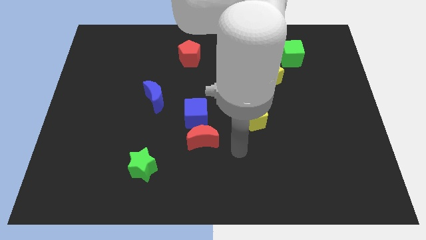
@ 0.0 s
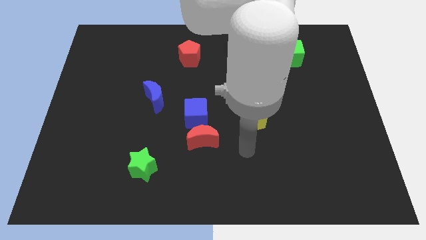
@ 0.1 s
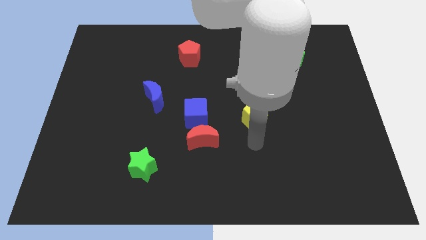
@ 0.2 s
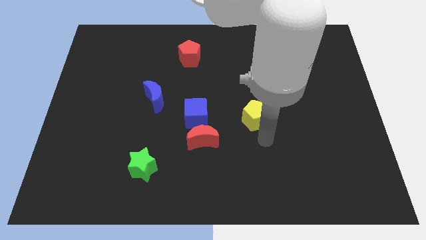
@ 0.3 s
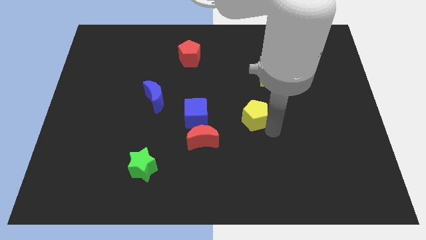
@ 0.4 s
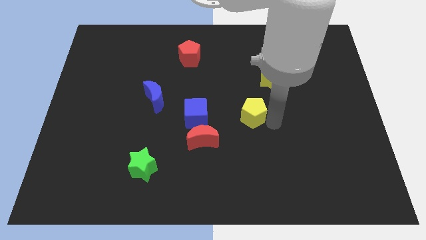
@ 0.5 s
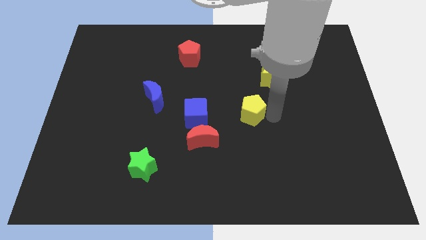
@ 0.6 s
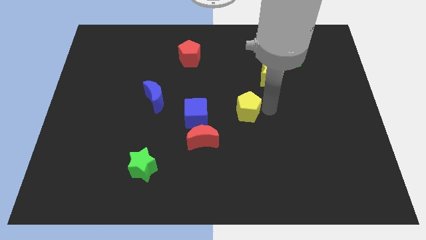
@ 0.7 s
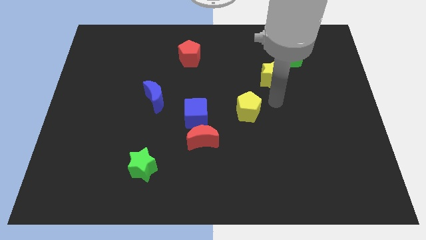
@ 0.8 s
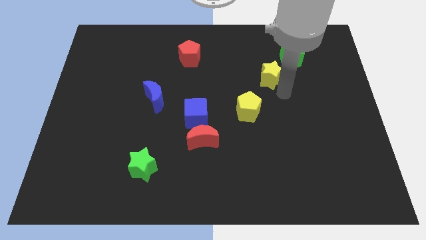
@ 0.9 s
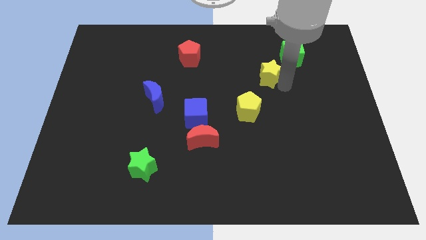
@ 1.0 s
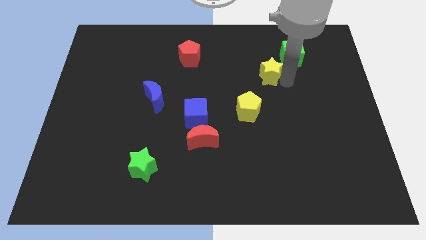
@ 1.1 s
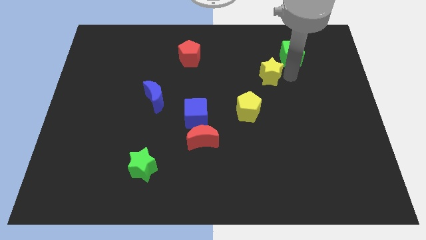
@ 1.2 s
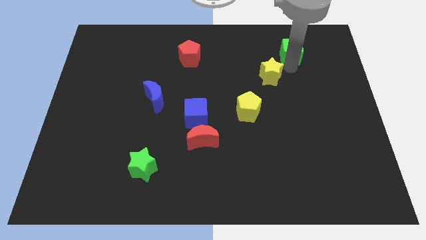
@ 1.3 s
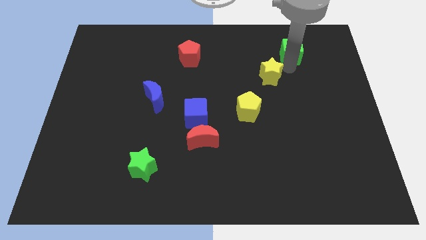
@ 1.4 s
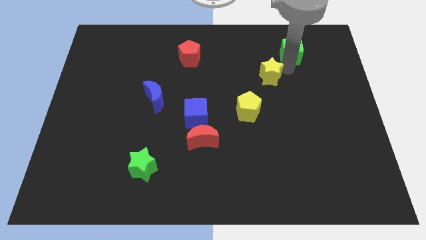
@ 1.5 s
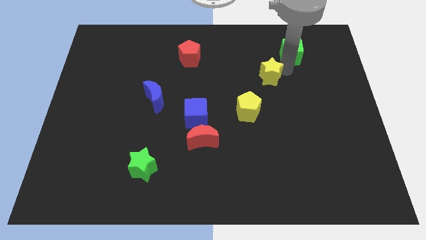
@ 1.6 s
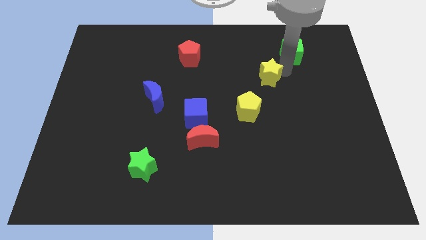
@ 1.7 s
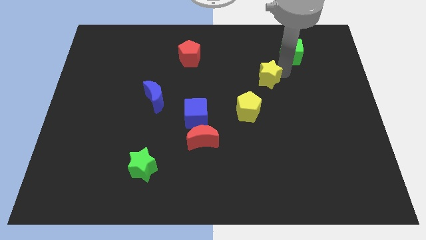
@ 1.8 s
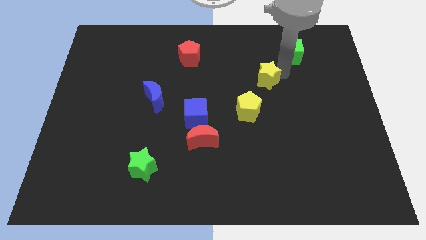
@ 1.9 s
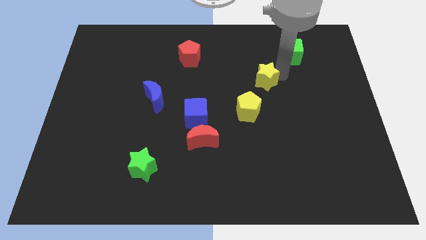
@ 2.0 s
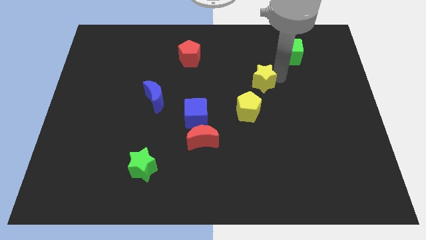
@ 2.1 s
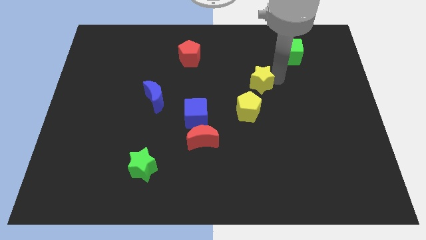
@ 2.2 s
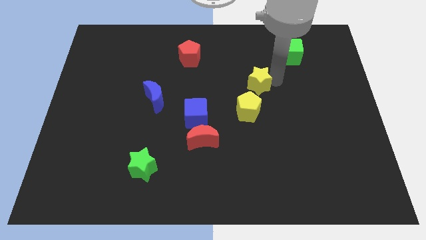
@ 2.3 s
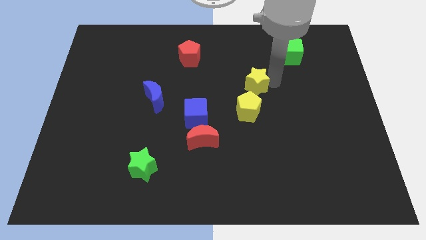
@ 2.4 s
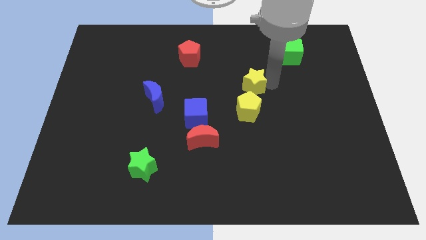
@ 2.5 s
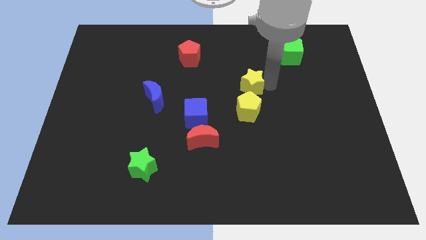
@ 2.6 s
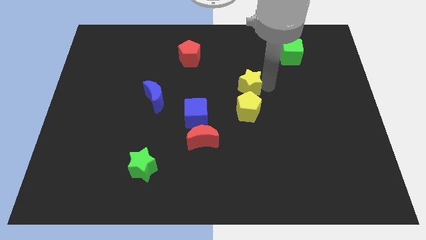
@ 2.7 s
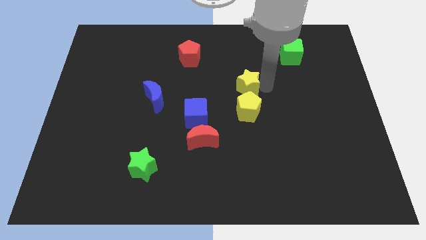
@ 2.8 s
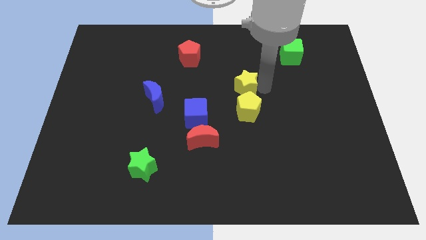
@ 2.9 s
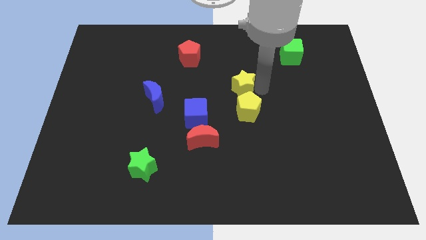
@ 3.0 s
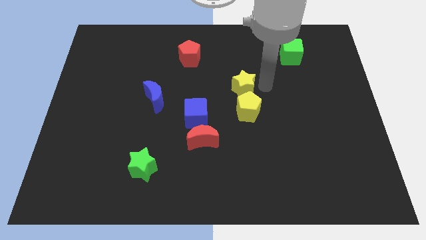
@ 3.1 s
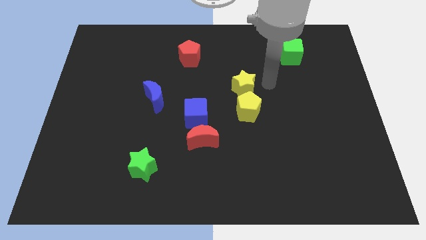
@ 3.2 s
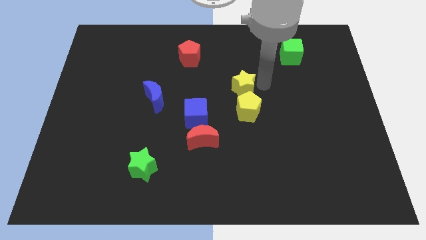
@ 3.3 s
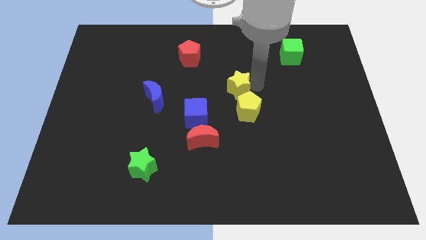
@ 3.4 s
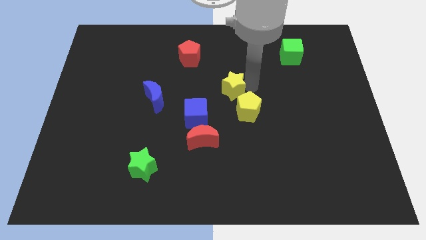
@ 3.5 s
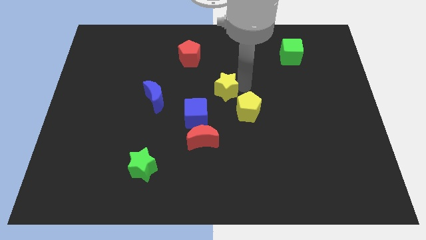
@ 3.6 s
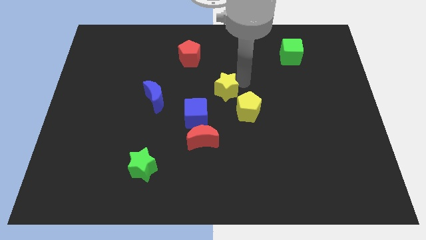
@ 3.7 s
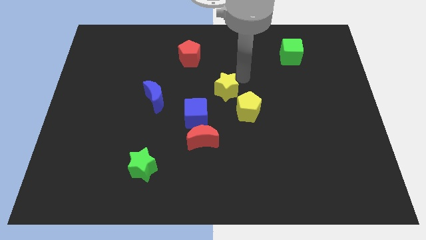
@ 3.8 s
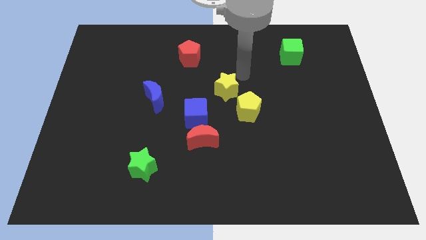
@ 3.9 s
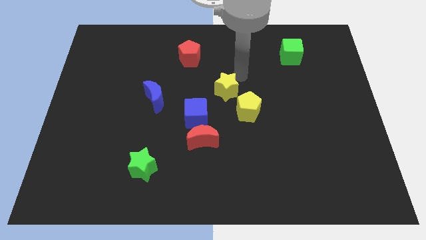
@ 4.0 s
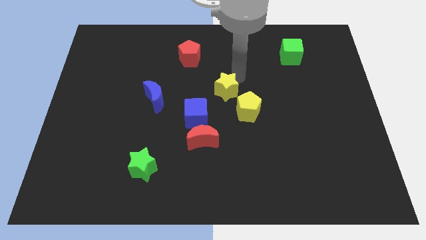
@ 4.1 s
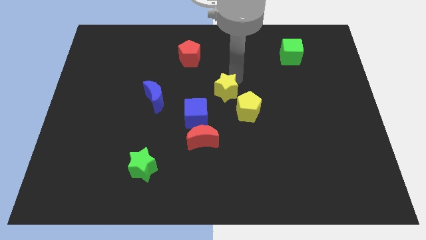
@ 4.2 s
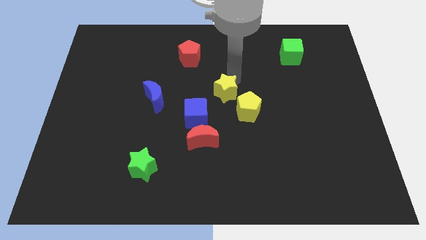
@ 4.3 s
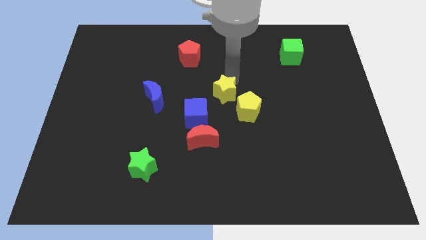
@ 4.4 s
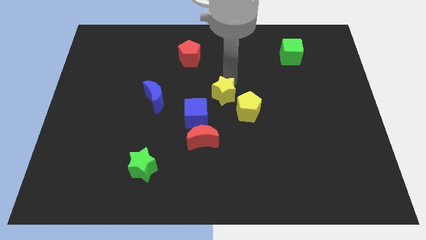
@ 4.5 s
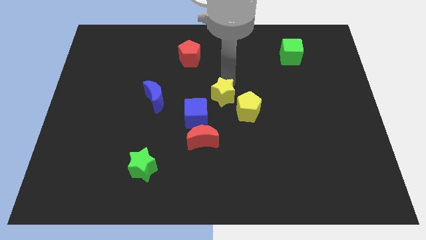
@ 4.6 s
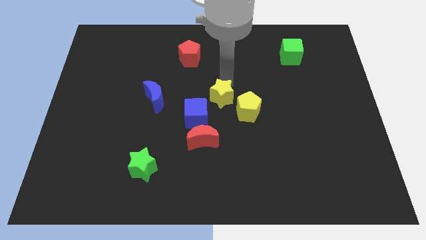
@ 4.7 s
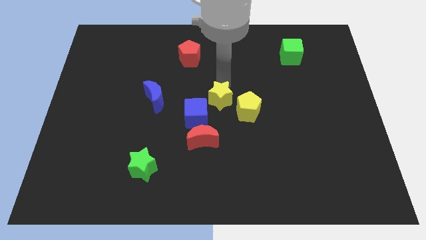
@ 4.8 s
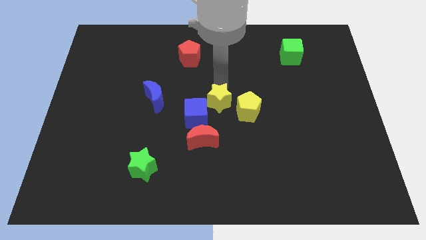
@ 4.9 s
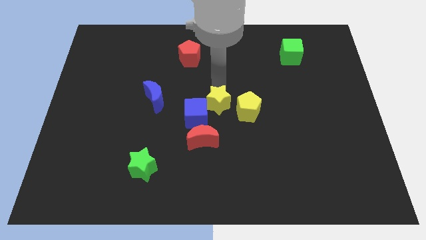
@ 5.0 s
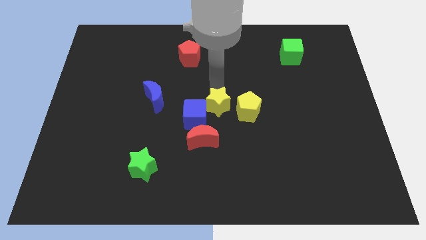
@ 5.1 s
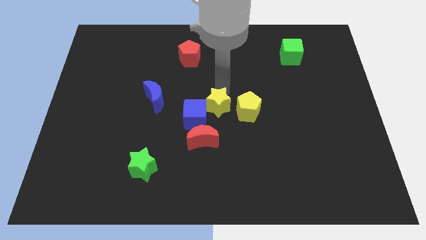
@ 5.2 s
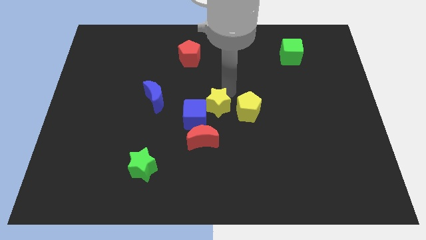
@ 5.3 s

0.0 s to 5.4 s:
move the yellow star towards the blue cube

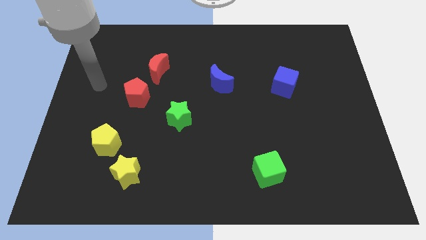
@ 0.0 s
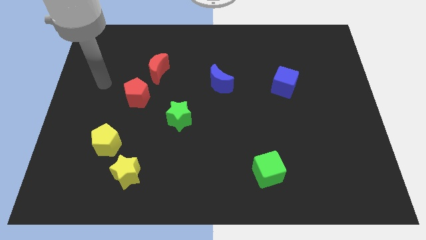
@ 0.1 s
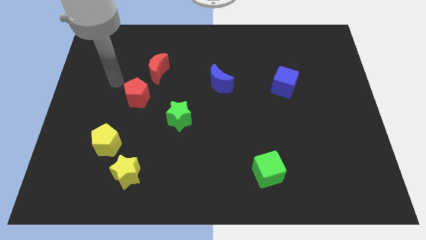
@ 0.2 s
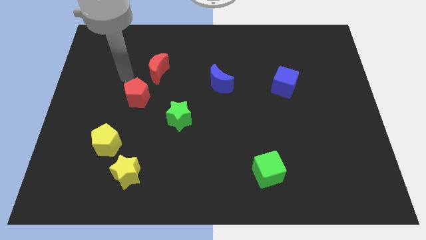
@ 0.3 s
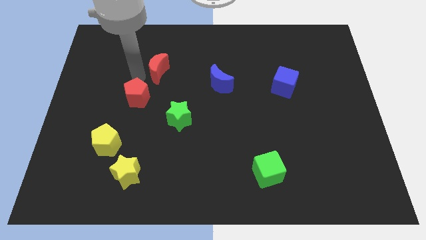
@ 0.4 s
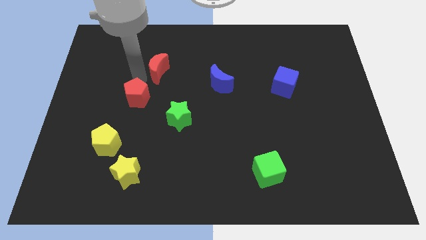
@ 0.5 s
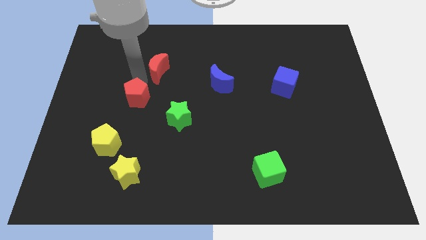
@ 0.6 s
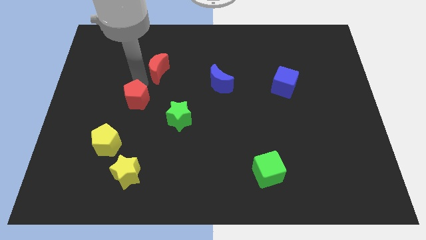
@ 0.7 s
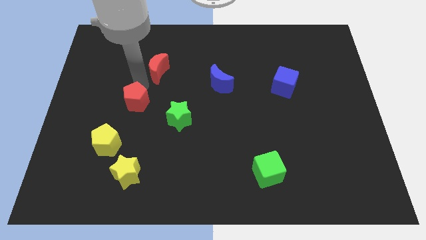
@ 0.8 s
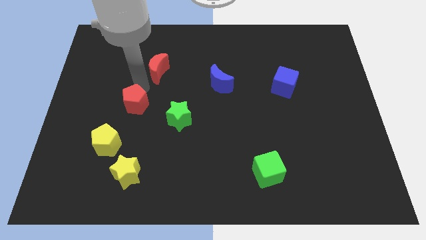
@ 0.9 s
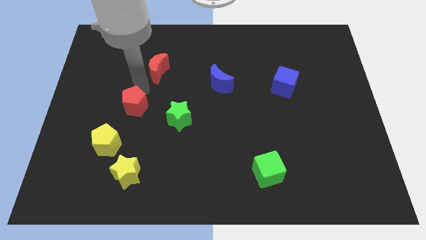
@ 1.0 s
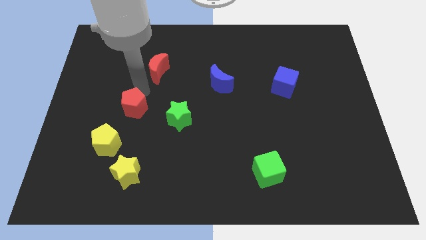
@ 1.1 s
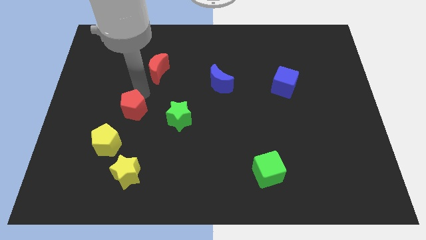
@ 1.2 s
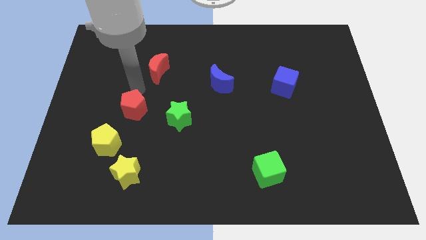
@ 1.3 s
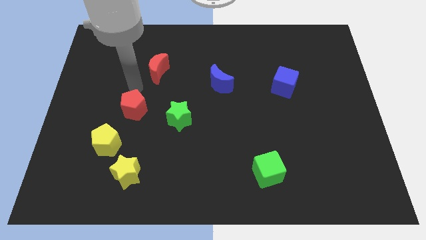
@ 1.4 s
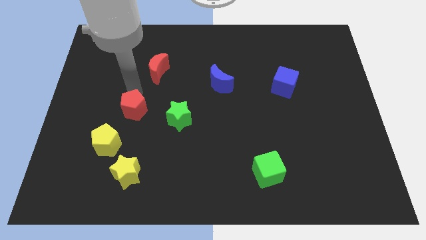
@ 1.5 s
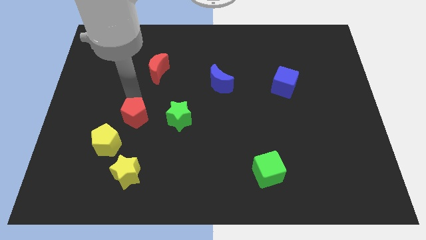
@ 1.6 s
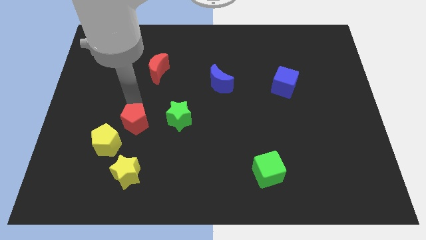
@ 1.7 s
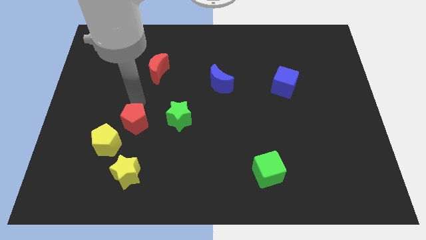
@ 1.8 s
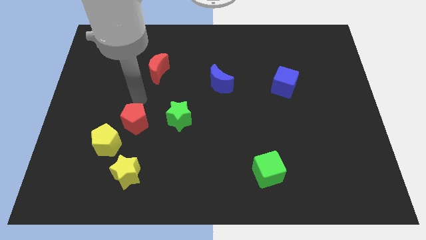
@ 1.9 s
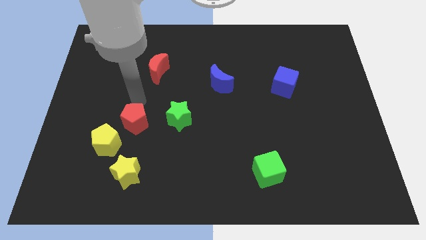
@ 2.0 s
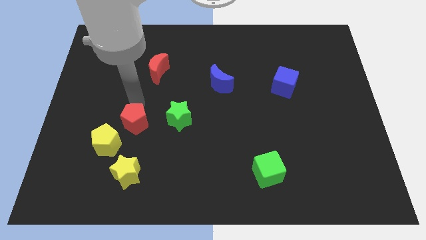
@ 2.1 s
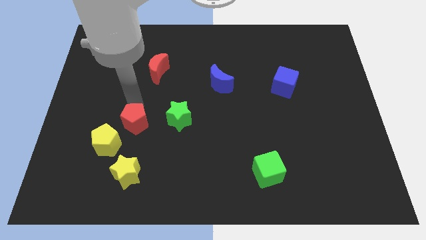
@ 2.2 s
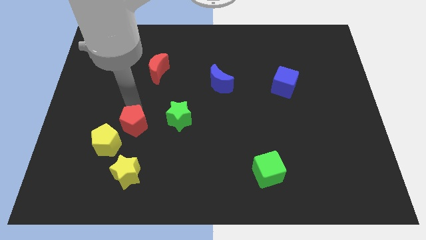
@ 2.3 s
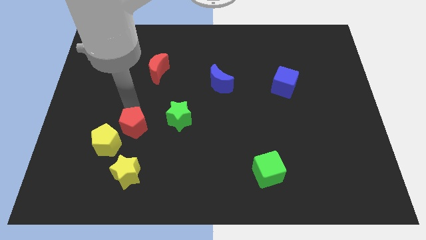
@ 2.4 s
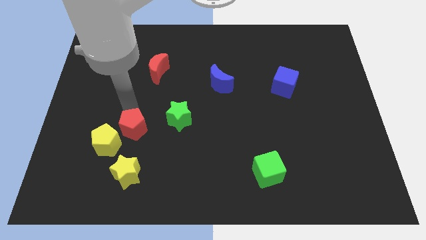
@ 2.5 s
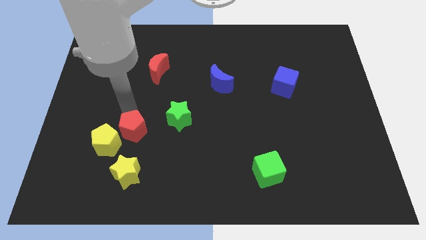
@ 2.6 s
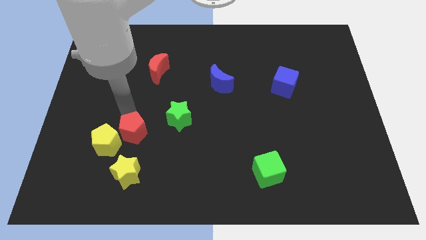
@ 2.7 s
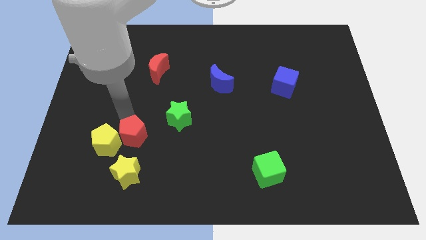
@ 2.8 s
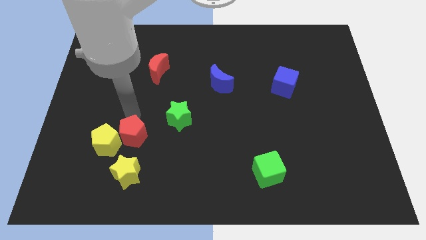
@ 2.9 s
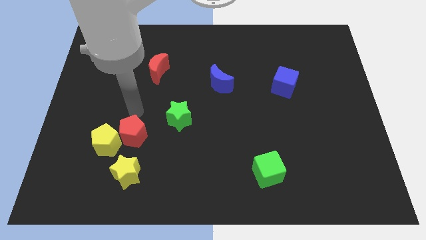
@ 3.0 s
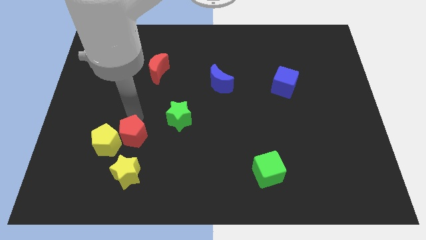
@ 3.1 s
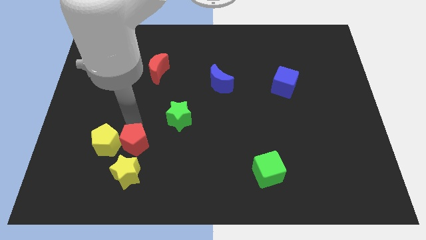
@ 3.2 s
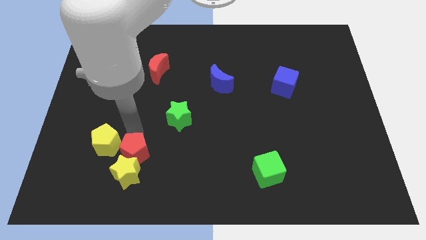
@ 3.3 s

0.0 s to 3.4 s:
slide the red pentagon towards the yellow star
